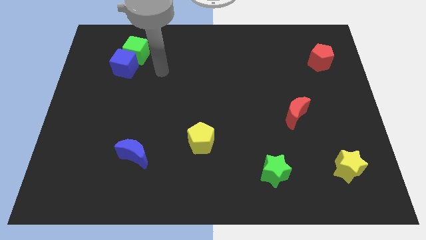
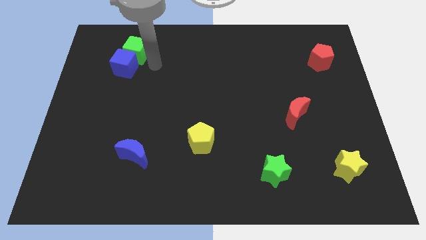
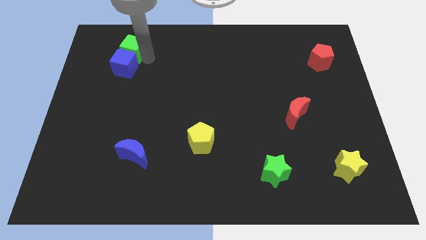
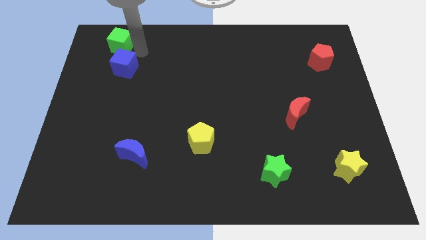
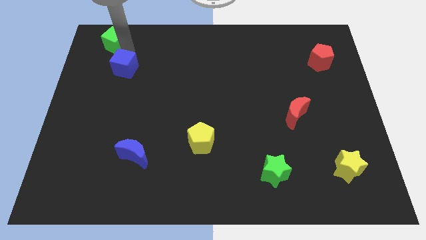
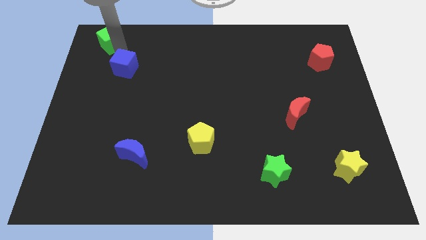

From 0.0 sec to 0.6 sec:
pull the blue cube apart from the green cube

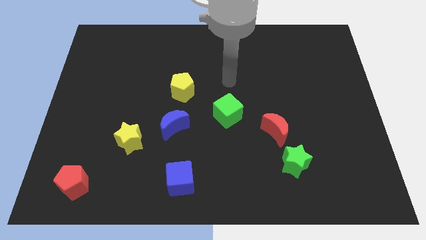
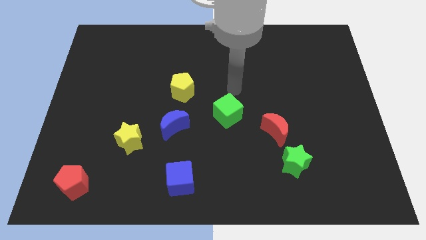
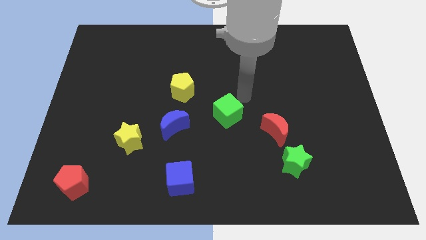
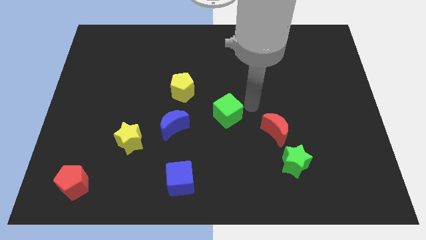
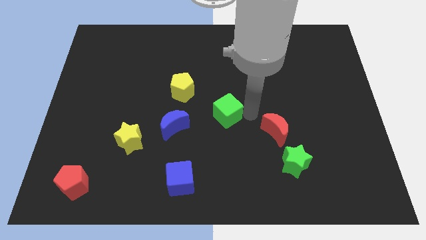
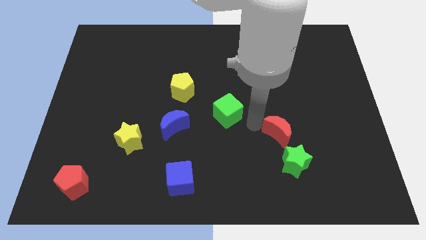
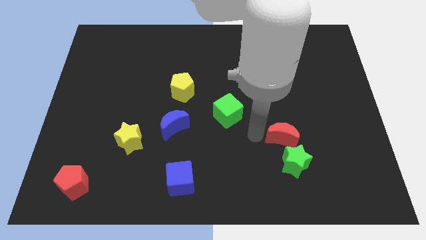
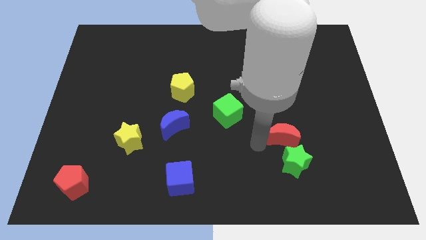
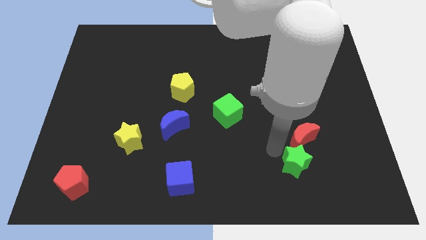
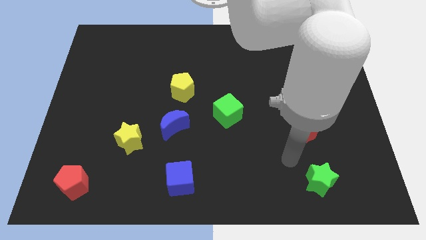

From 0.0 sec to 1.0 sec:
pull the red moon apart from the green star

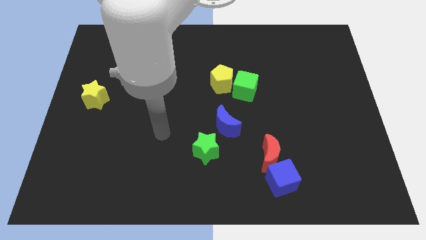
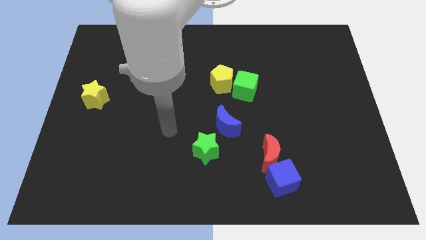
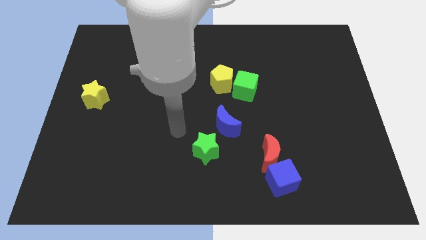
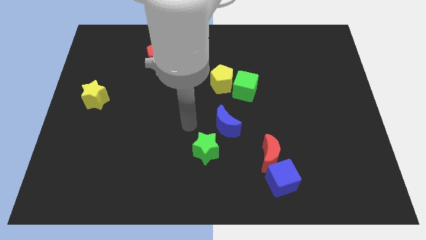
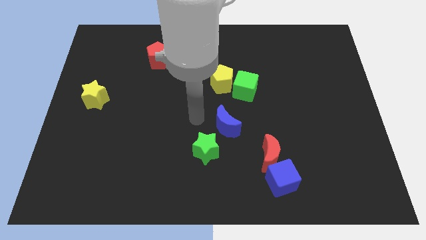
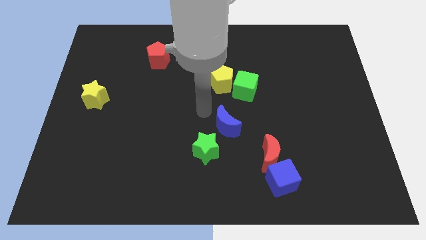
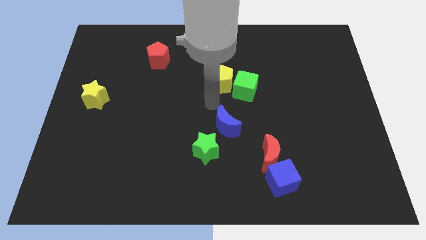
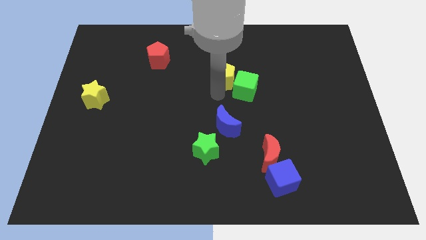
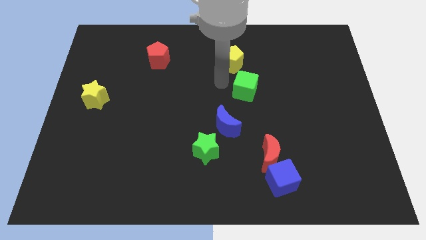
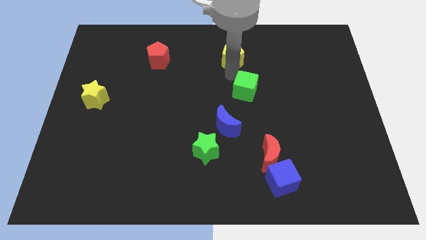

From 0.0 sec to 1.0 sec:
move the green cube away from the yellow pentagon

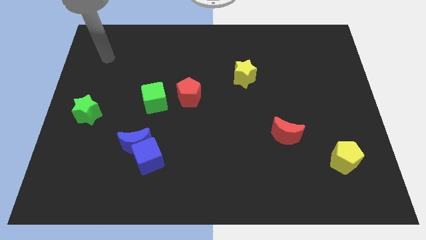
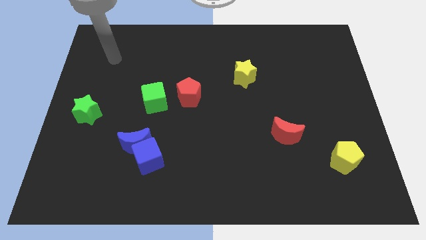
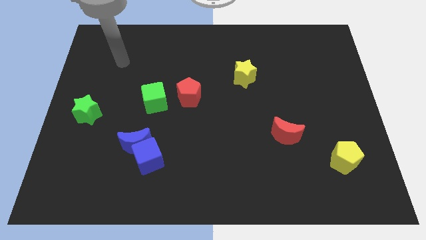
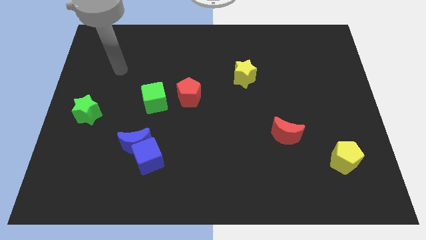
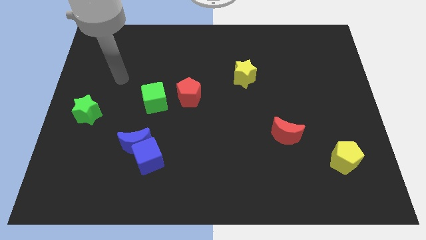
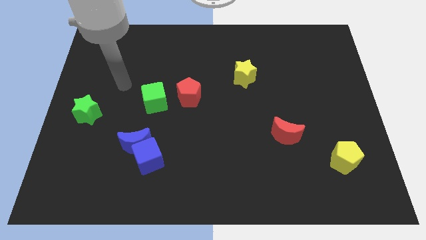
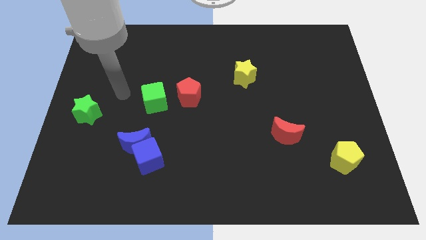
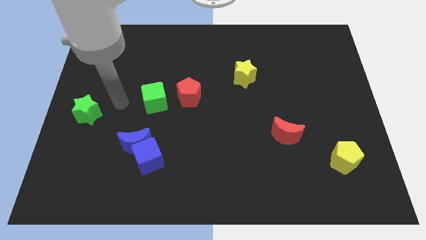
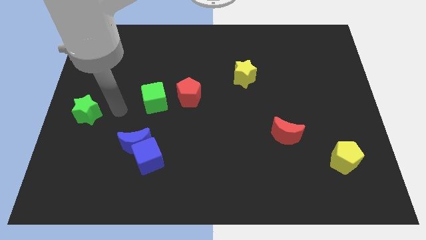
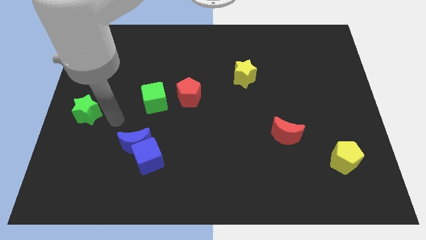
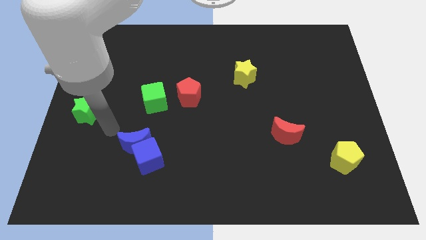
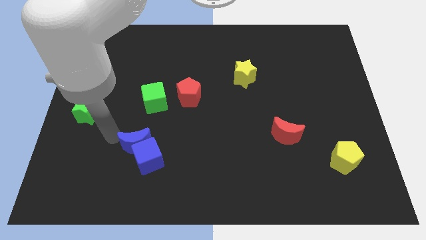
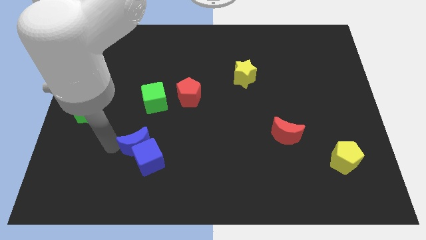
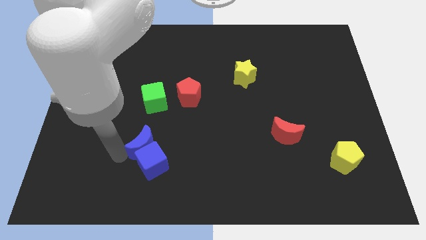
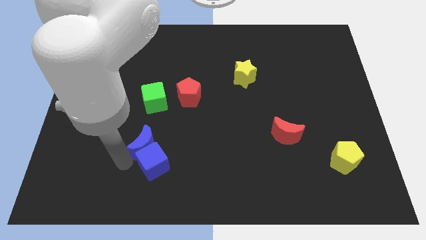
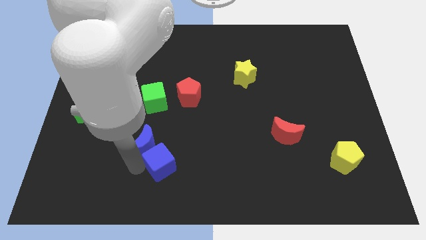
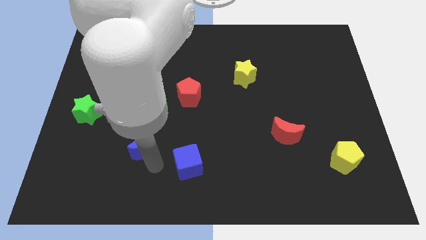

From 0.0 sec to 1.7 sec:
move the blue moon away from the blue cube

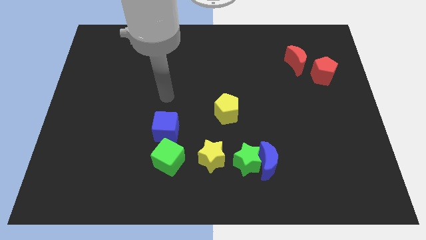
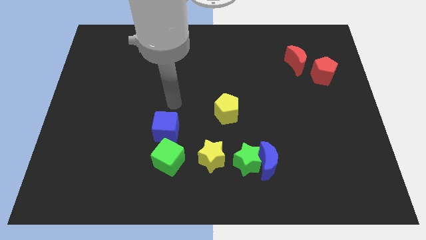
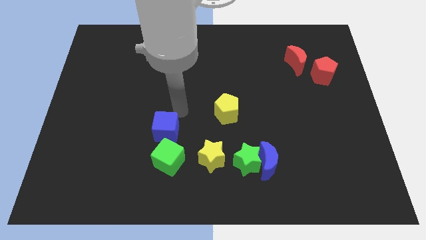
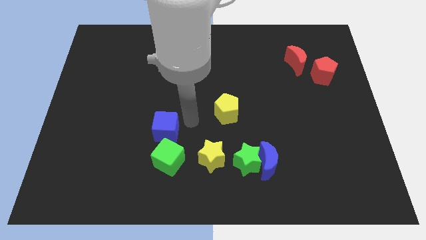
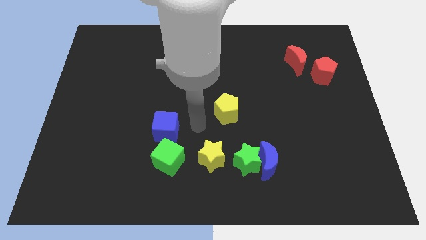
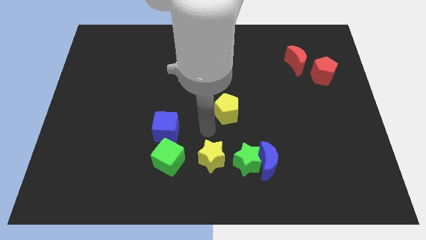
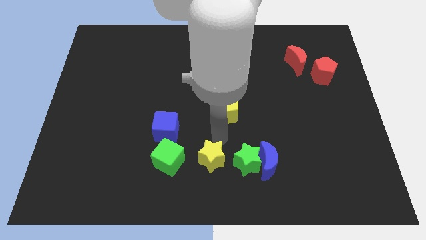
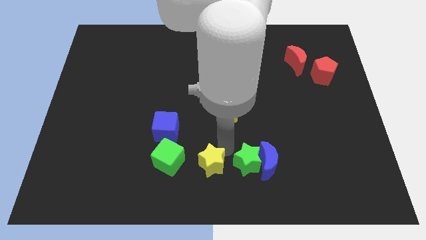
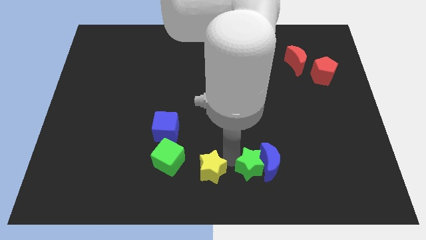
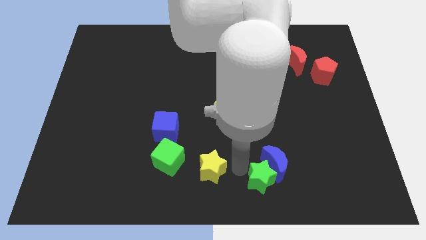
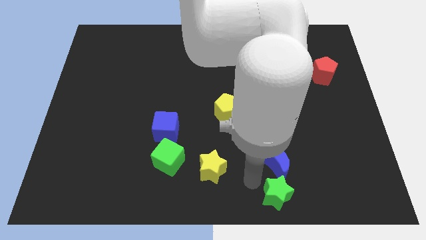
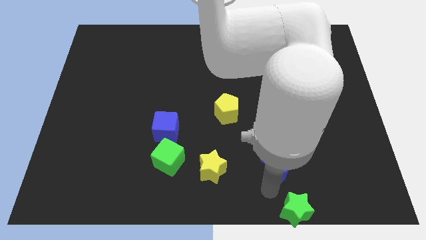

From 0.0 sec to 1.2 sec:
pull the blue moon apart from the green star

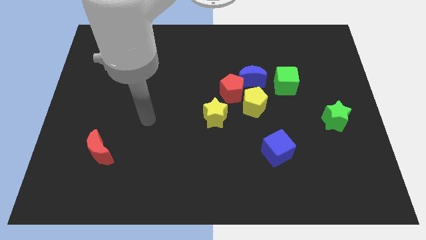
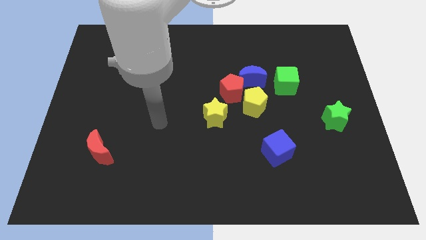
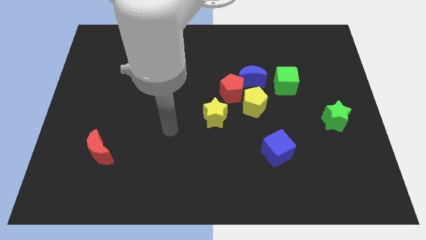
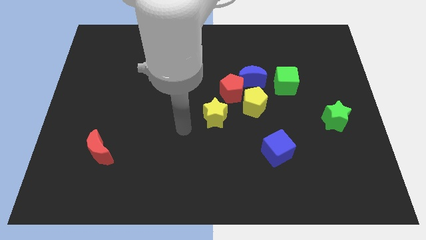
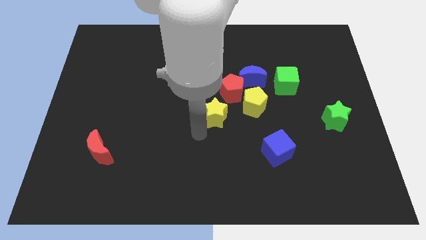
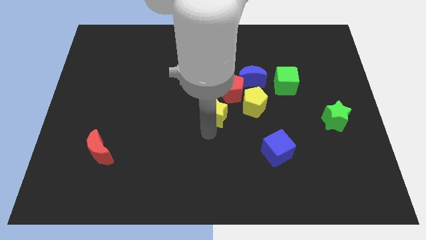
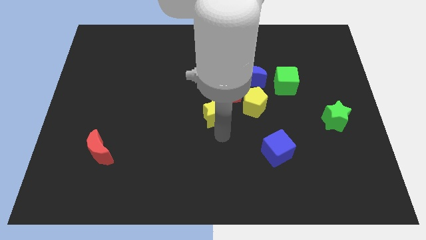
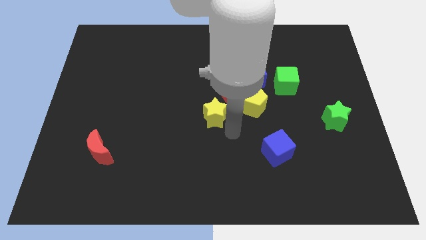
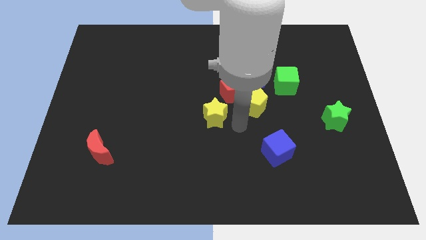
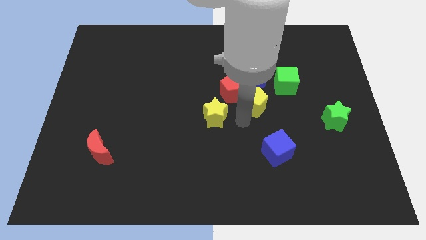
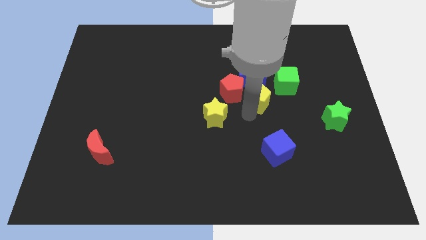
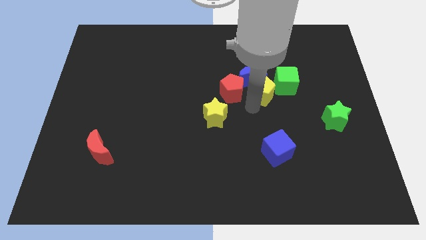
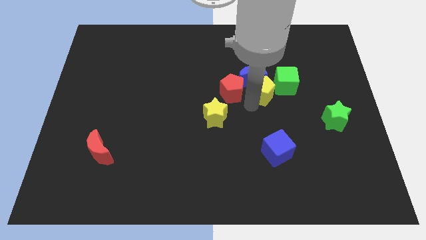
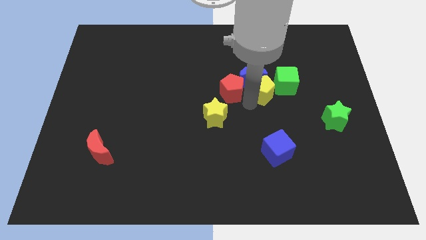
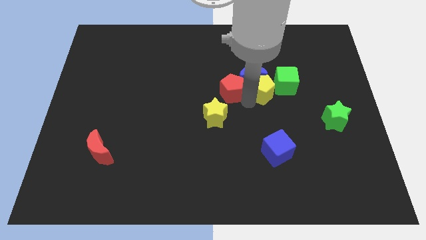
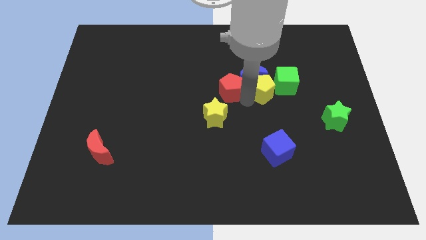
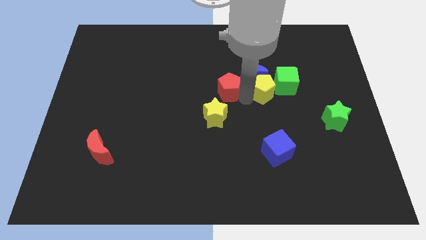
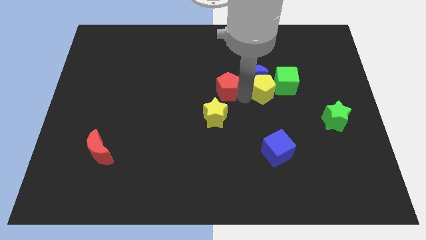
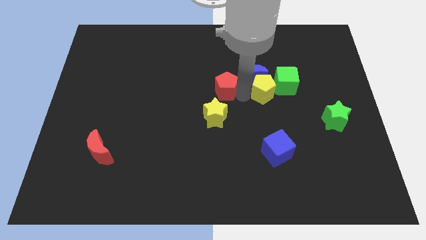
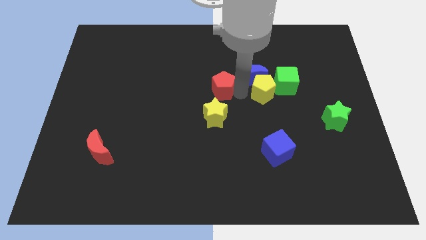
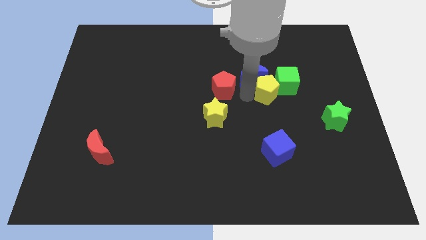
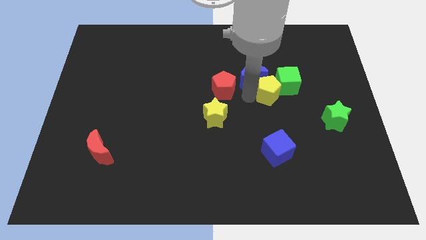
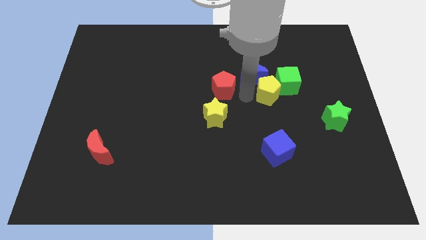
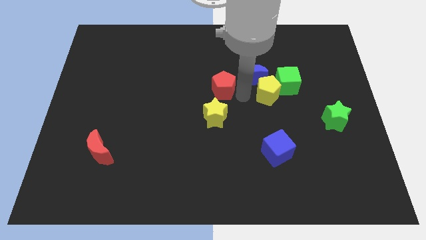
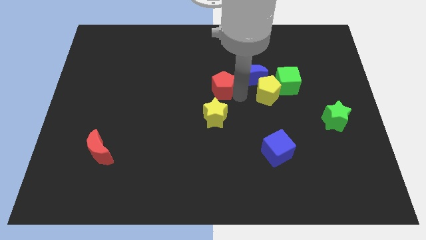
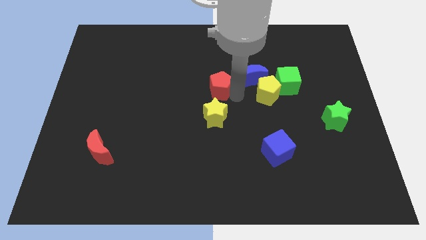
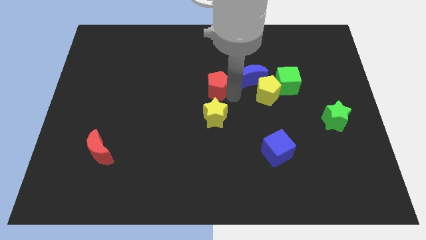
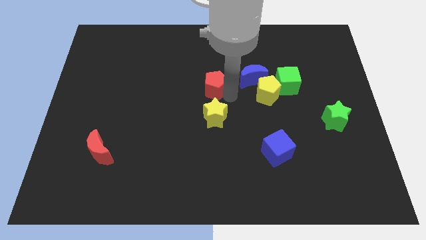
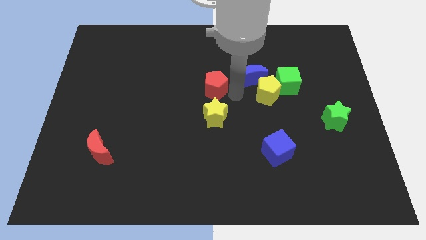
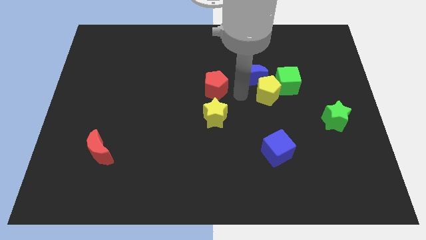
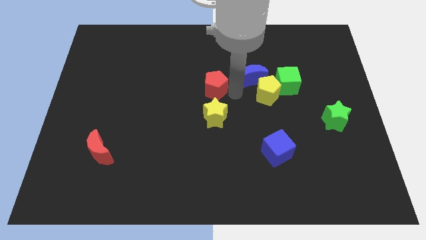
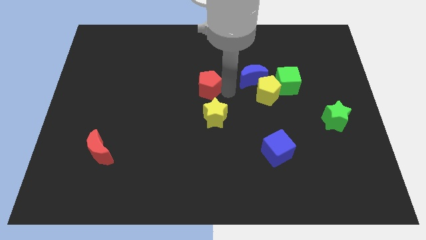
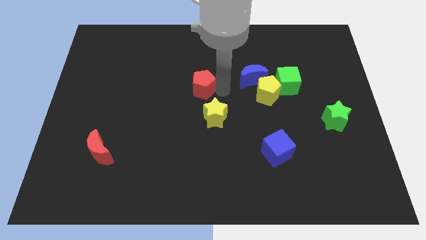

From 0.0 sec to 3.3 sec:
move the red pentagon away from the yellow pentagon, blue moon, and yellow star

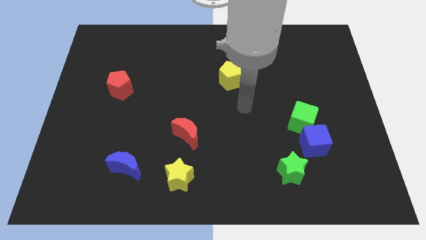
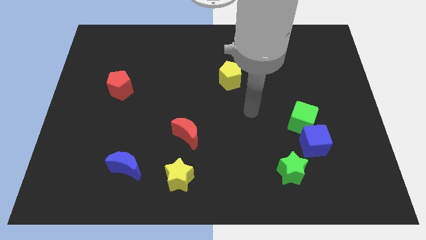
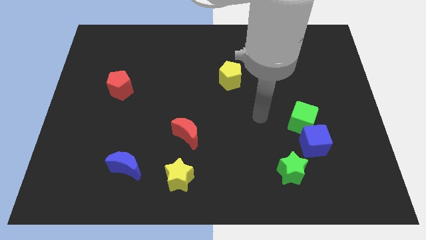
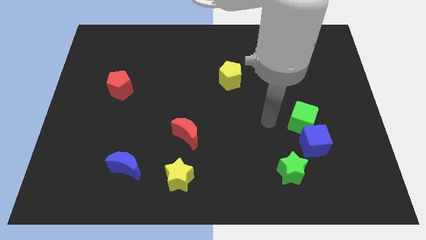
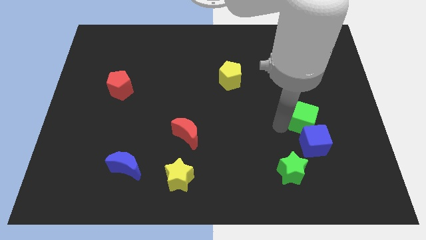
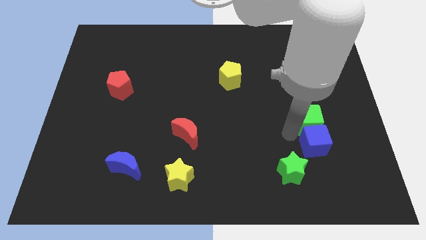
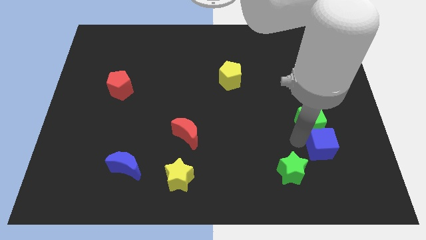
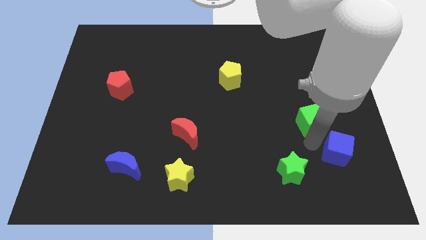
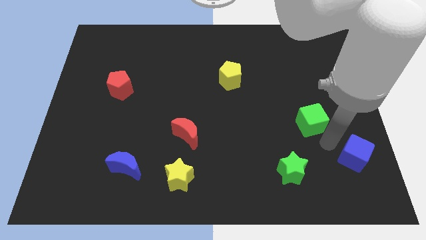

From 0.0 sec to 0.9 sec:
pull the green cube apart from the blue cube
